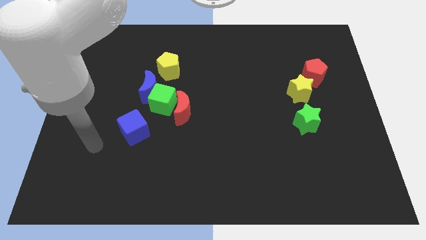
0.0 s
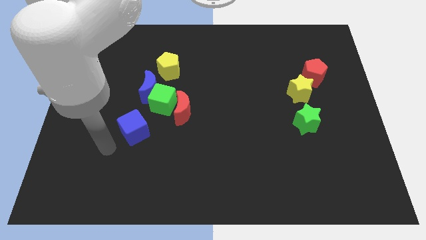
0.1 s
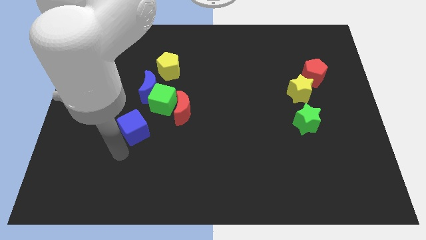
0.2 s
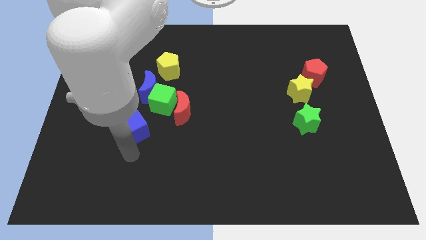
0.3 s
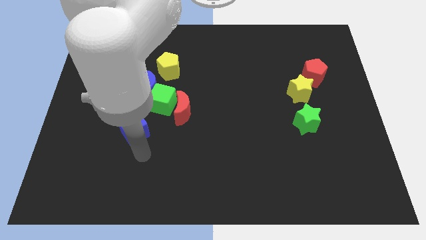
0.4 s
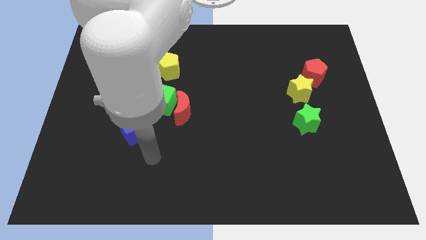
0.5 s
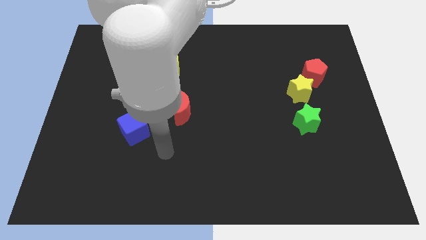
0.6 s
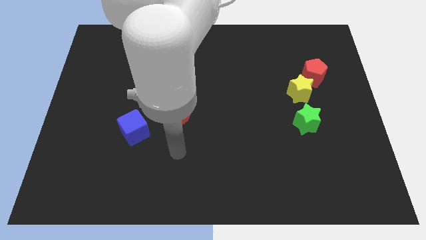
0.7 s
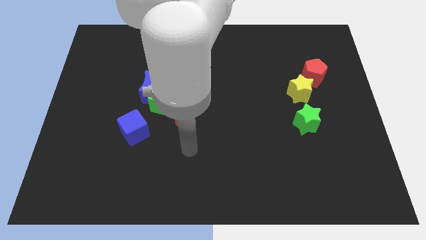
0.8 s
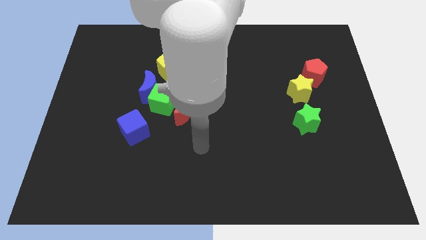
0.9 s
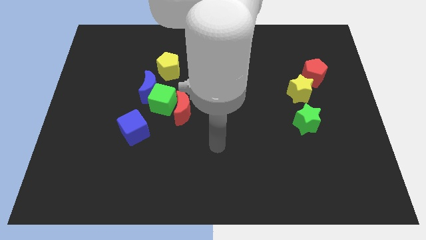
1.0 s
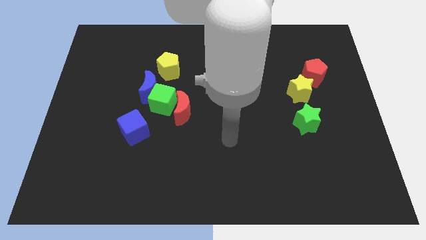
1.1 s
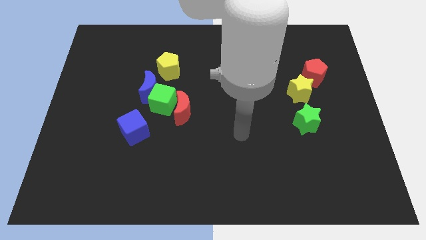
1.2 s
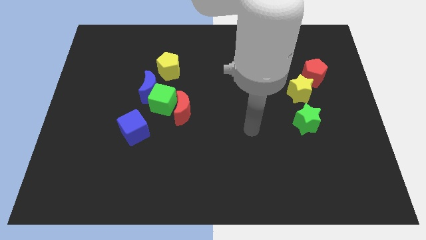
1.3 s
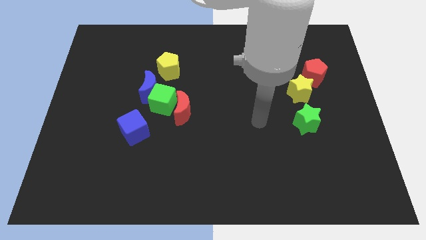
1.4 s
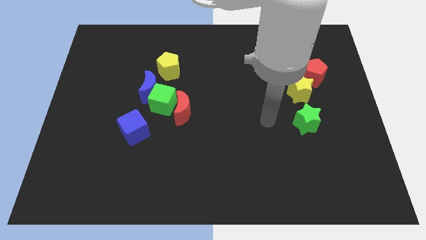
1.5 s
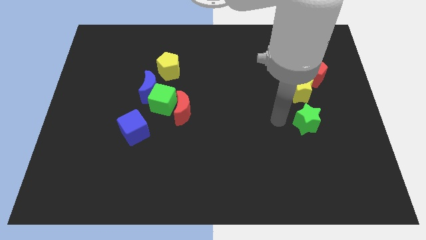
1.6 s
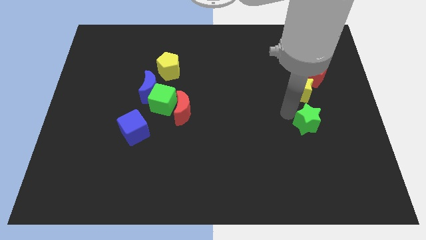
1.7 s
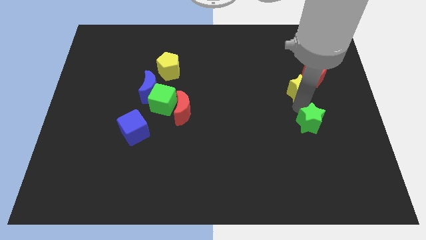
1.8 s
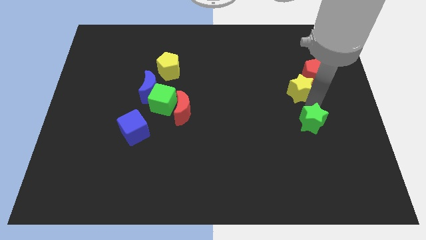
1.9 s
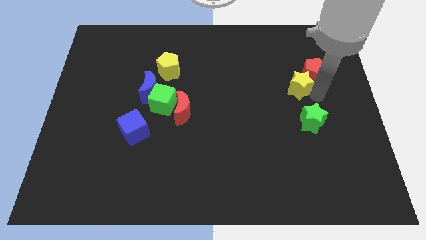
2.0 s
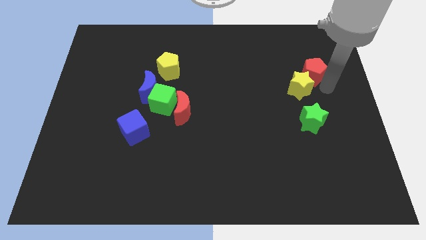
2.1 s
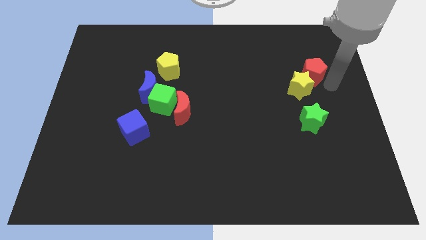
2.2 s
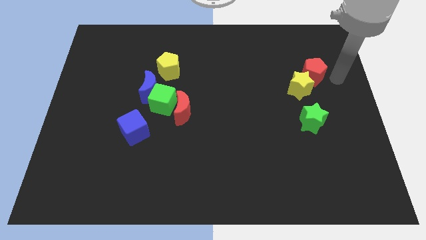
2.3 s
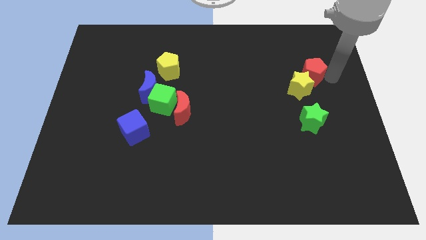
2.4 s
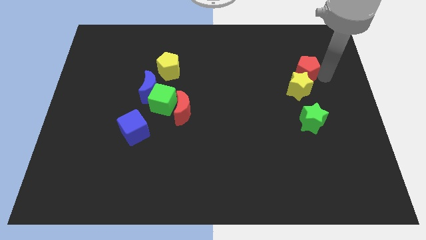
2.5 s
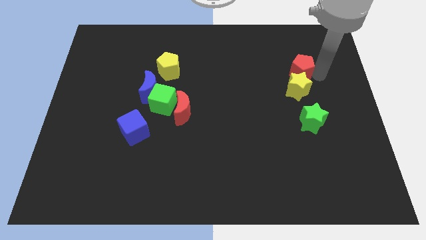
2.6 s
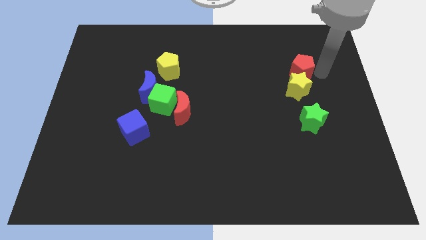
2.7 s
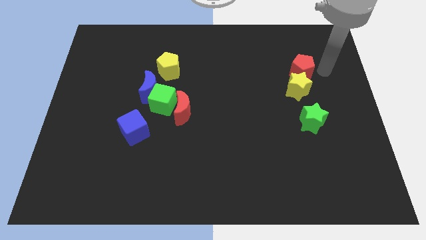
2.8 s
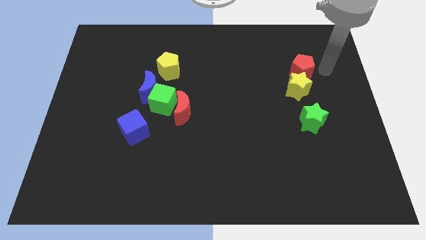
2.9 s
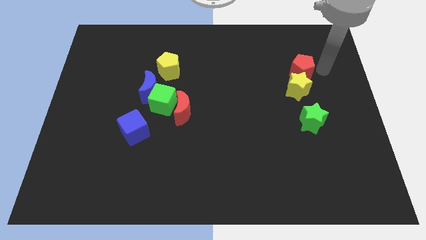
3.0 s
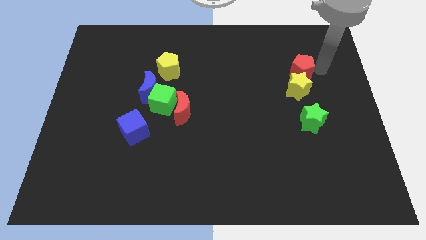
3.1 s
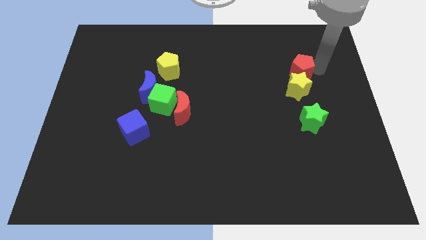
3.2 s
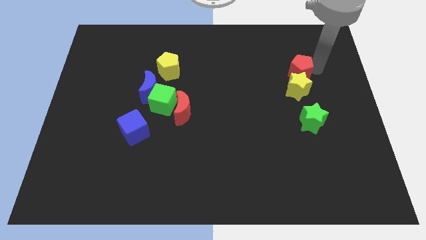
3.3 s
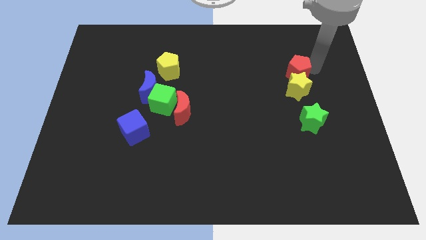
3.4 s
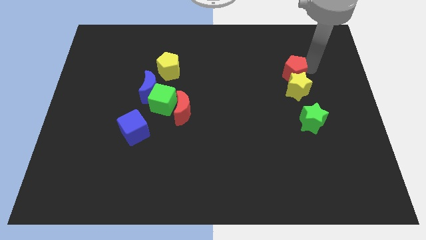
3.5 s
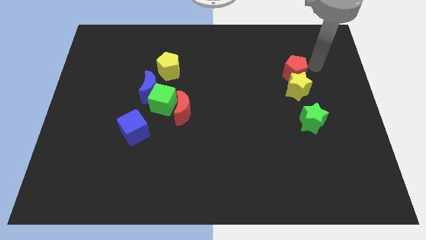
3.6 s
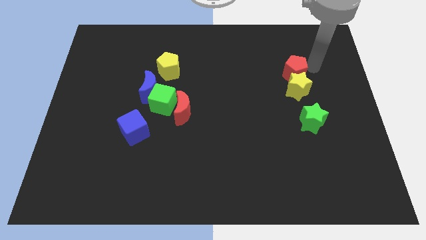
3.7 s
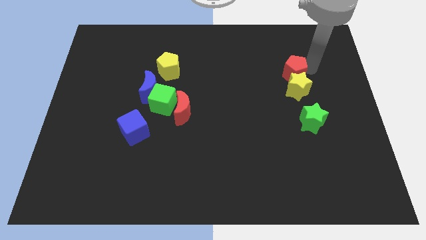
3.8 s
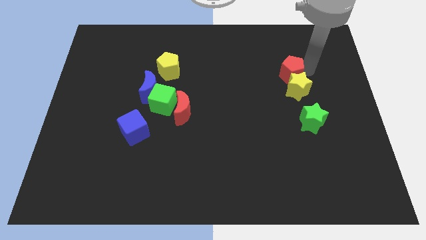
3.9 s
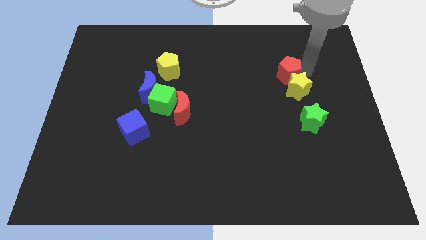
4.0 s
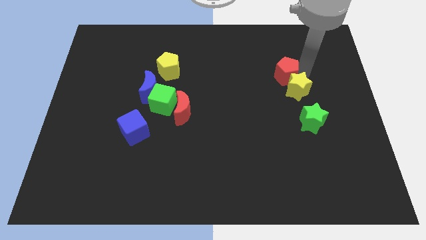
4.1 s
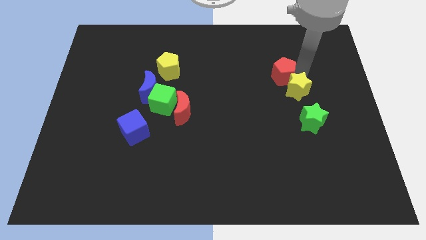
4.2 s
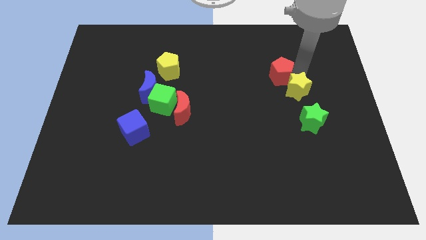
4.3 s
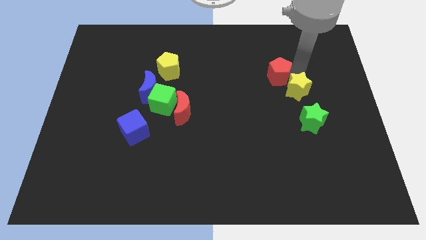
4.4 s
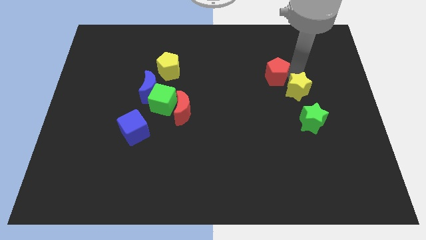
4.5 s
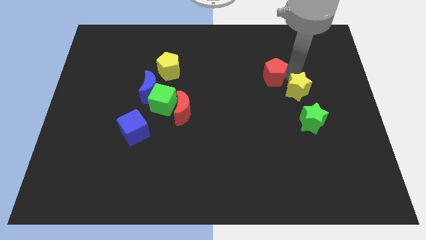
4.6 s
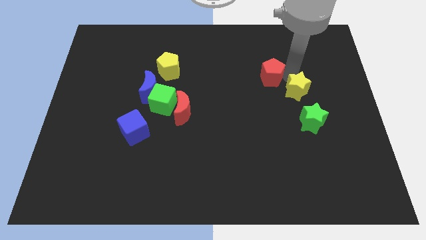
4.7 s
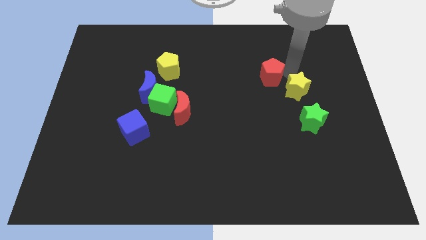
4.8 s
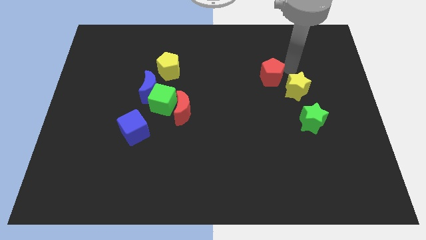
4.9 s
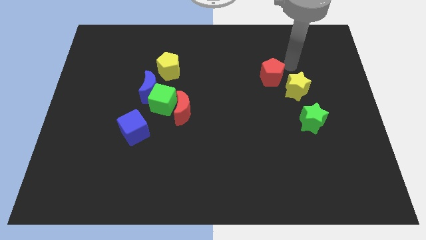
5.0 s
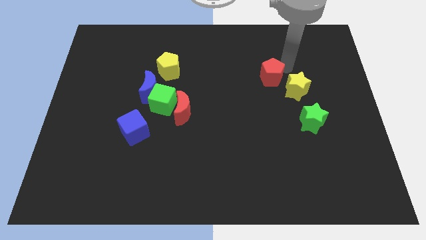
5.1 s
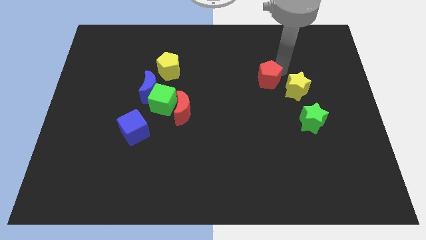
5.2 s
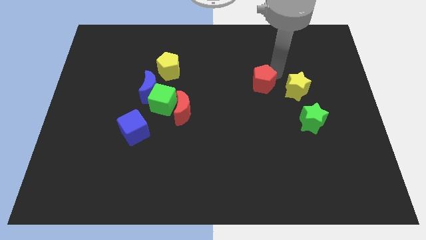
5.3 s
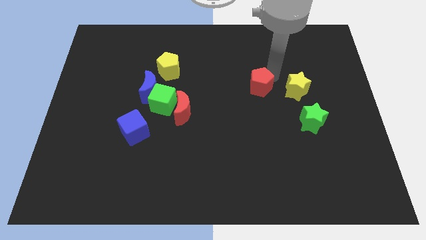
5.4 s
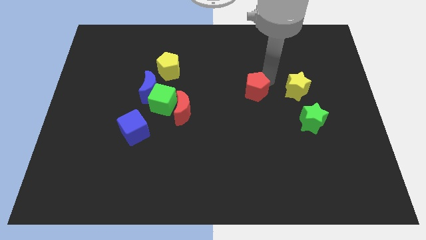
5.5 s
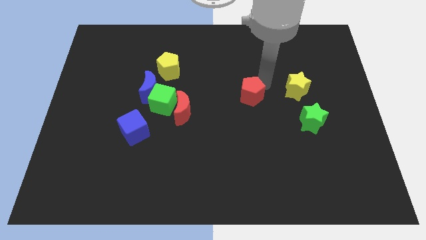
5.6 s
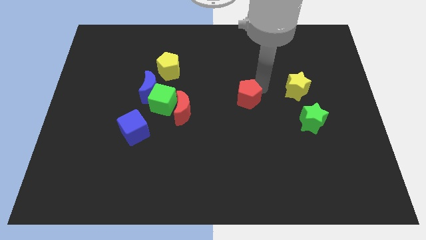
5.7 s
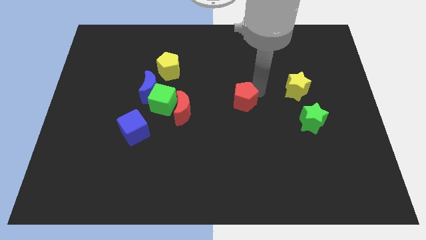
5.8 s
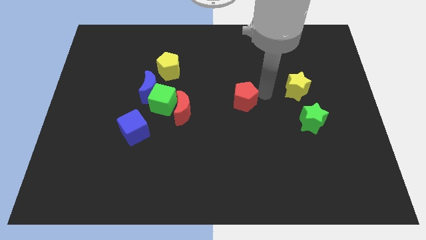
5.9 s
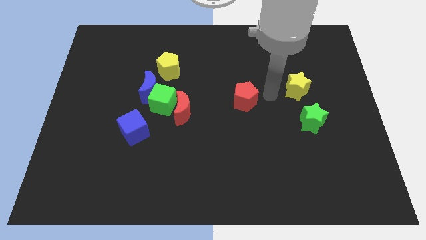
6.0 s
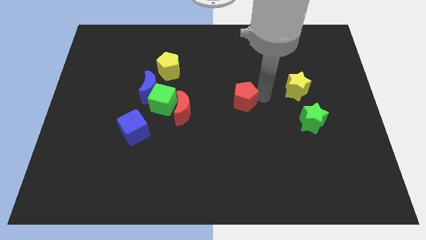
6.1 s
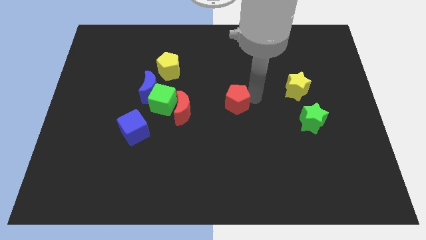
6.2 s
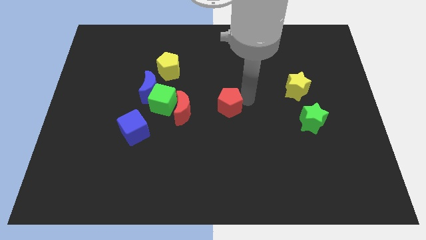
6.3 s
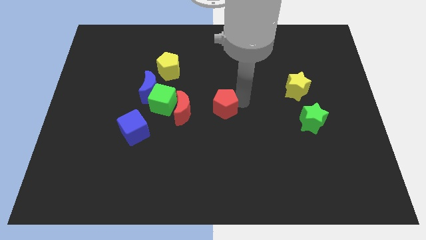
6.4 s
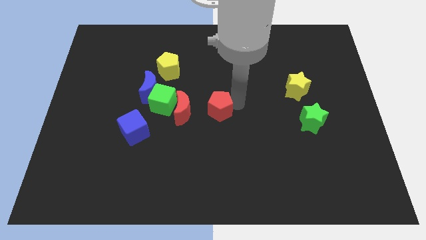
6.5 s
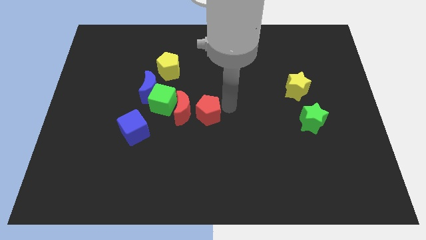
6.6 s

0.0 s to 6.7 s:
put the red pentagon to the red moon
